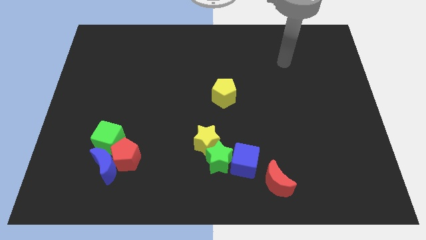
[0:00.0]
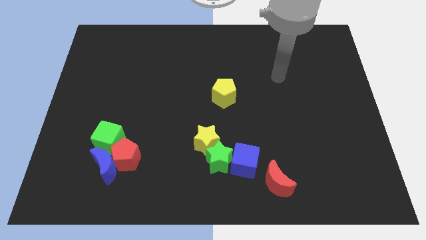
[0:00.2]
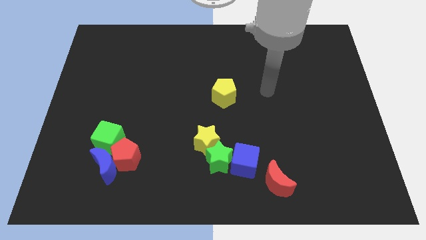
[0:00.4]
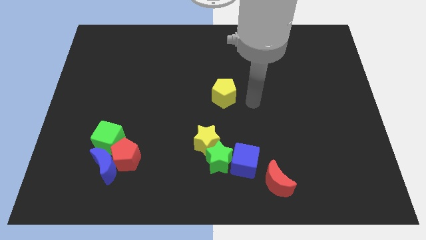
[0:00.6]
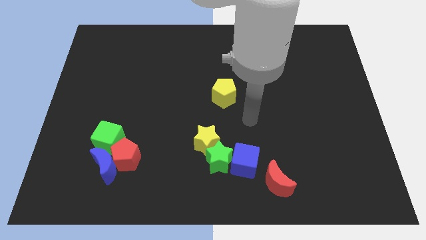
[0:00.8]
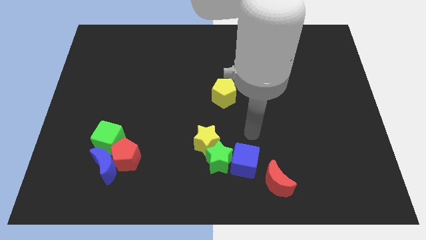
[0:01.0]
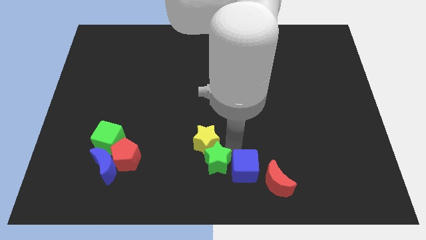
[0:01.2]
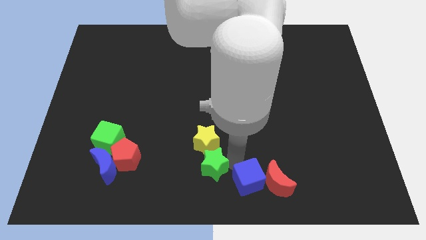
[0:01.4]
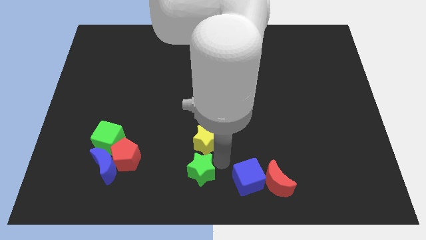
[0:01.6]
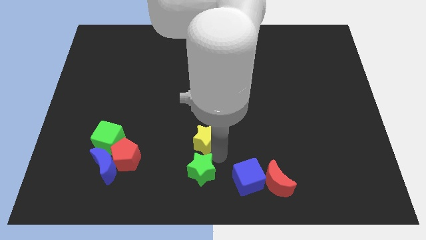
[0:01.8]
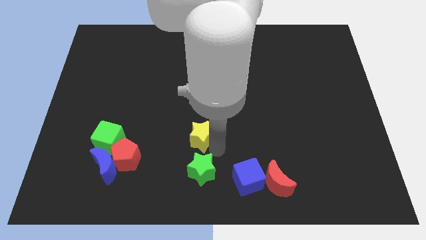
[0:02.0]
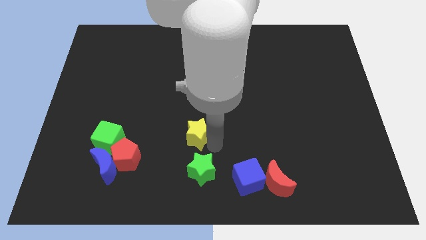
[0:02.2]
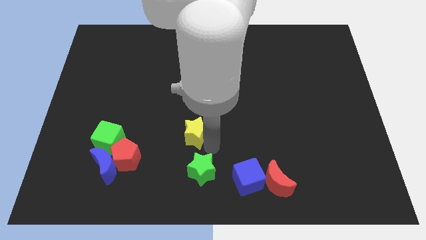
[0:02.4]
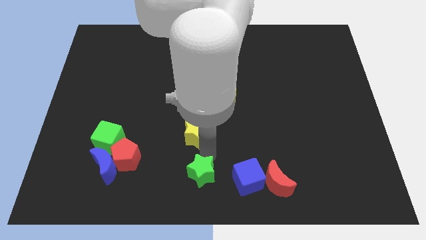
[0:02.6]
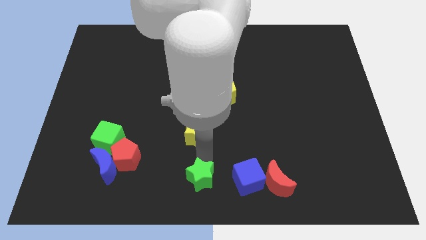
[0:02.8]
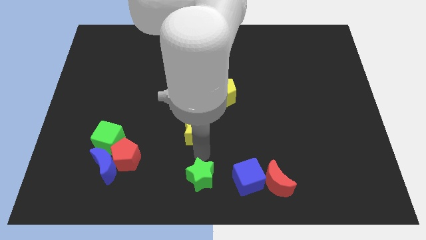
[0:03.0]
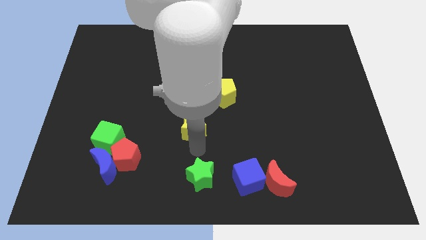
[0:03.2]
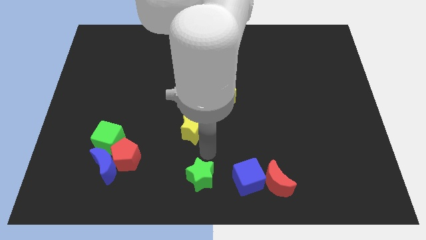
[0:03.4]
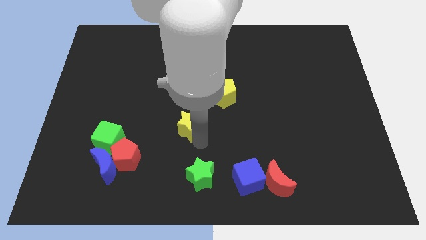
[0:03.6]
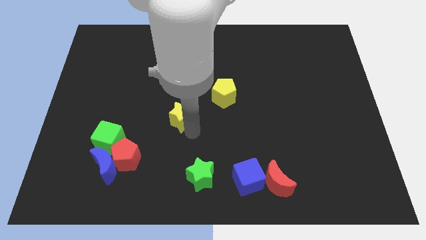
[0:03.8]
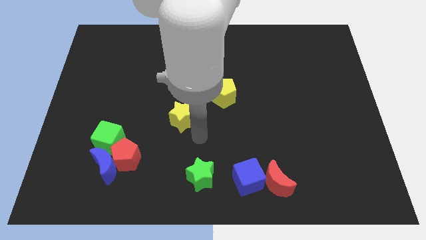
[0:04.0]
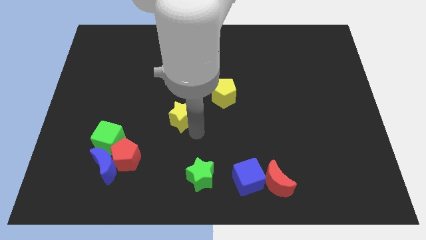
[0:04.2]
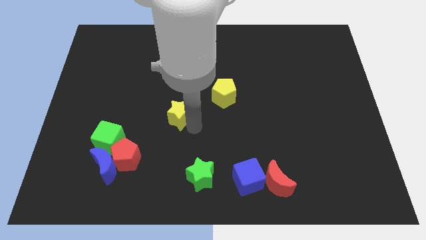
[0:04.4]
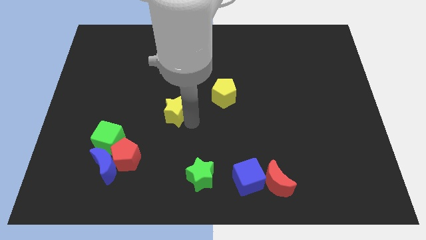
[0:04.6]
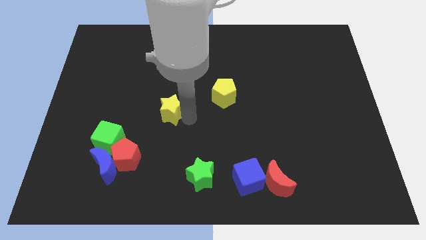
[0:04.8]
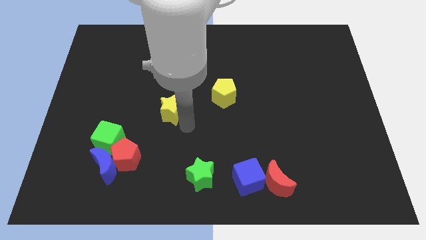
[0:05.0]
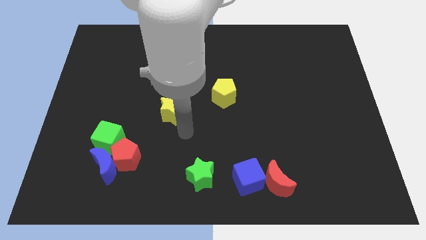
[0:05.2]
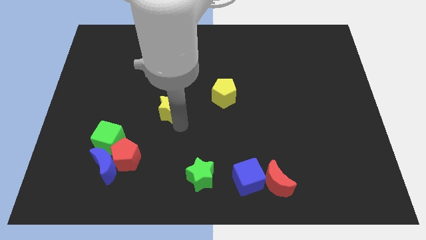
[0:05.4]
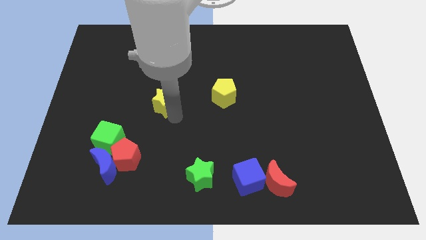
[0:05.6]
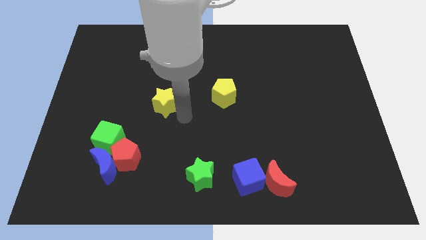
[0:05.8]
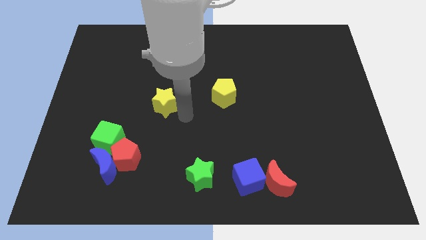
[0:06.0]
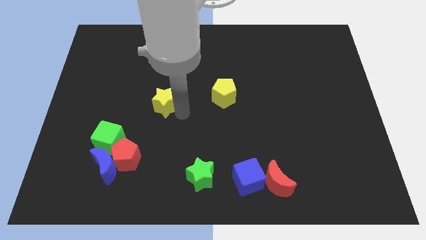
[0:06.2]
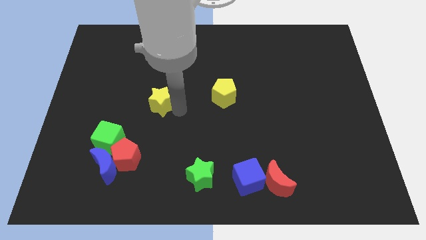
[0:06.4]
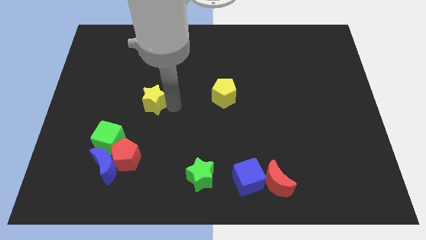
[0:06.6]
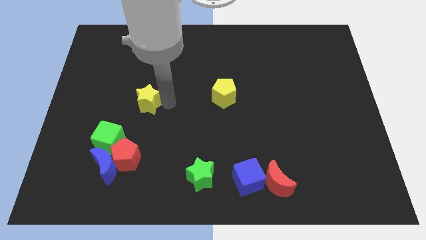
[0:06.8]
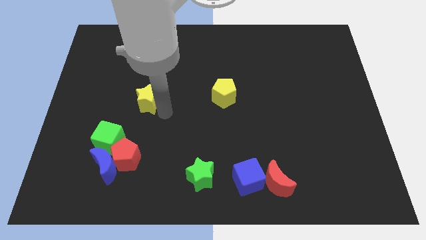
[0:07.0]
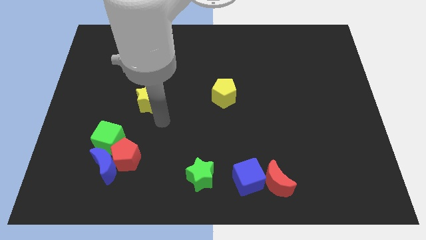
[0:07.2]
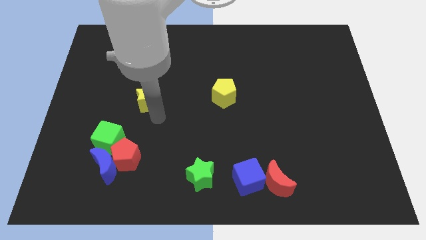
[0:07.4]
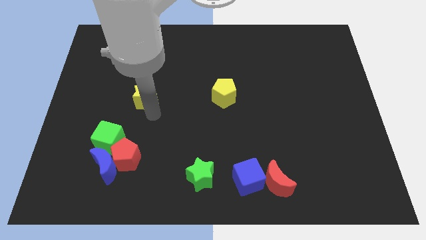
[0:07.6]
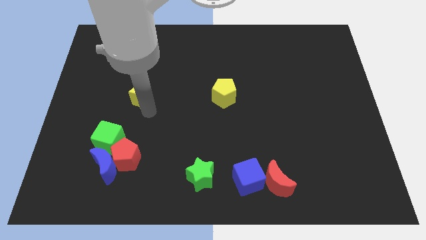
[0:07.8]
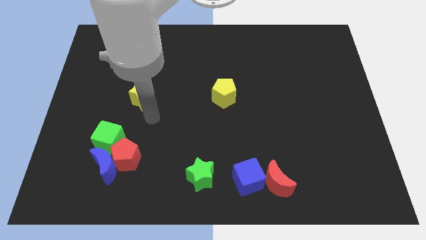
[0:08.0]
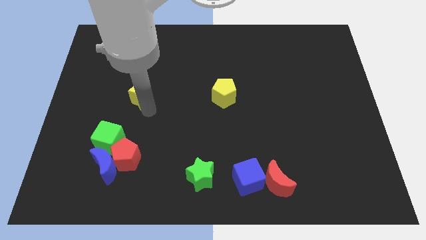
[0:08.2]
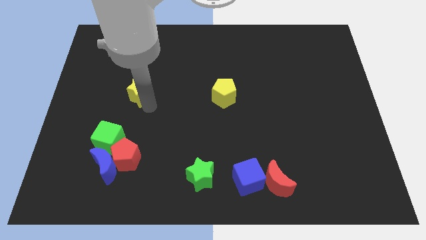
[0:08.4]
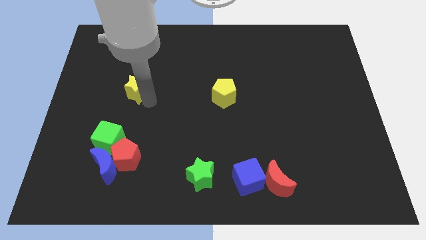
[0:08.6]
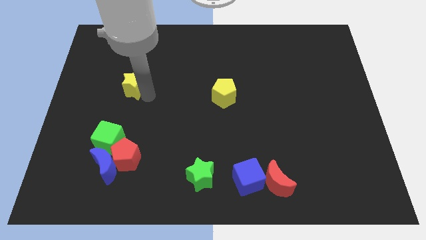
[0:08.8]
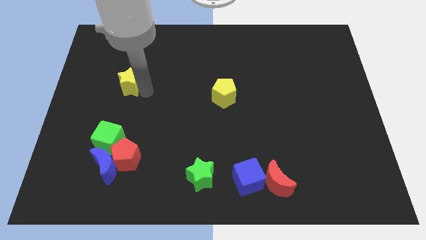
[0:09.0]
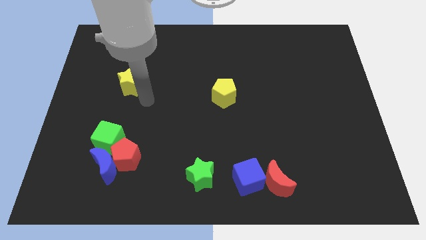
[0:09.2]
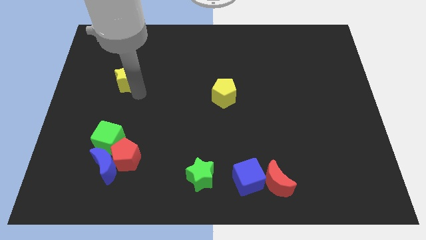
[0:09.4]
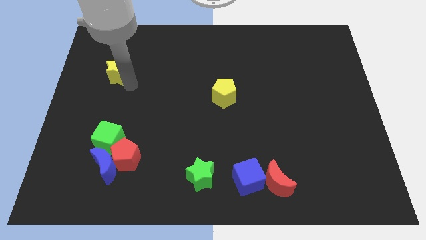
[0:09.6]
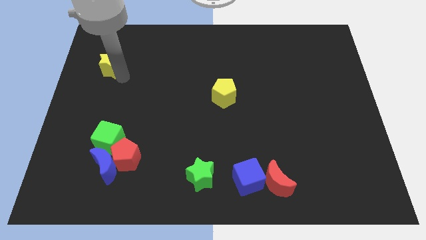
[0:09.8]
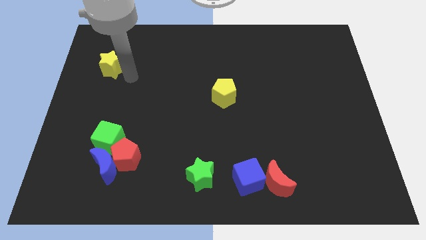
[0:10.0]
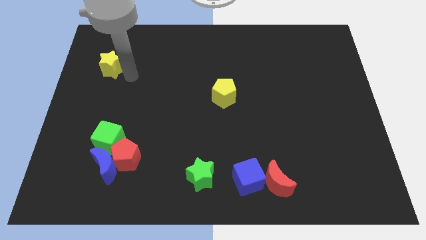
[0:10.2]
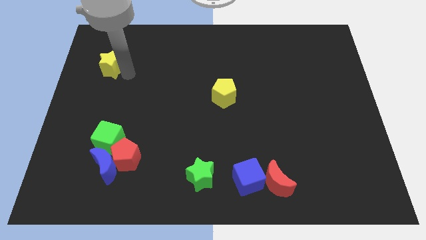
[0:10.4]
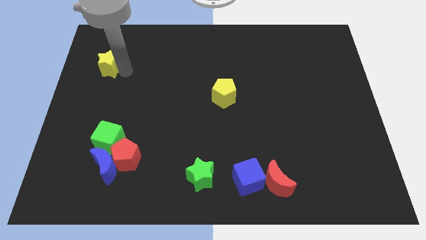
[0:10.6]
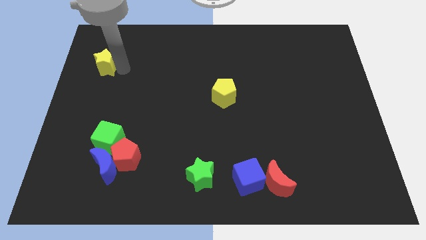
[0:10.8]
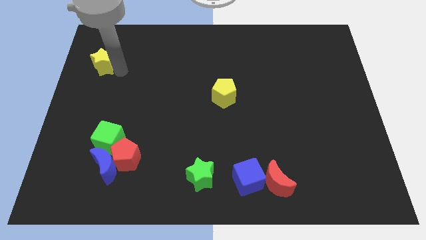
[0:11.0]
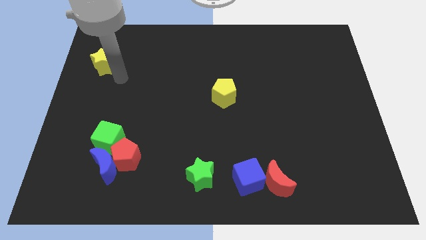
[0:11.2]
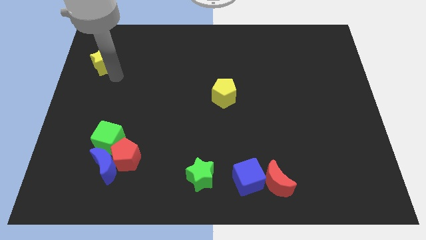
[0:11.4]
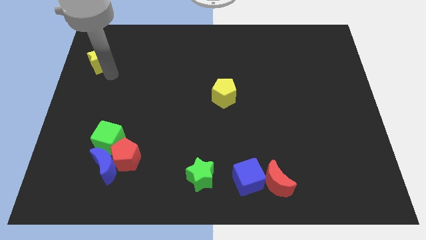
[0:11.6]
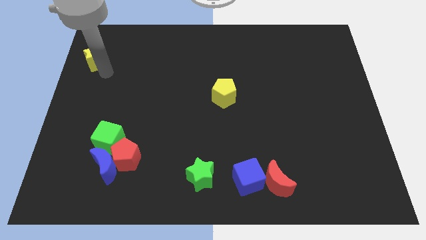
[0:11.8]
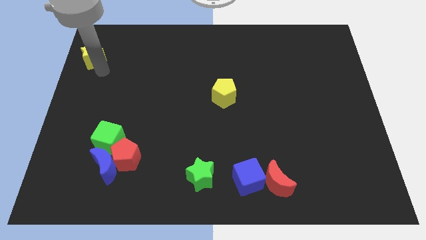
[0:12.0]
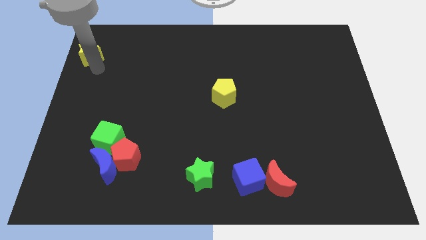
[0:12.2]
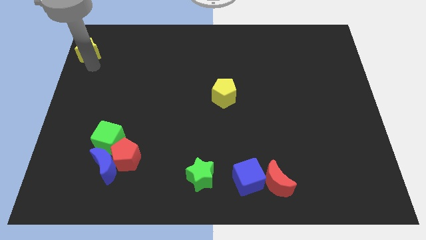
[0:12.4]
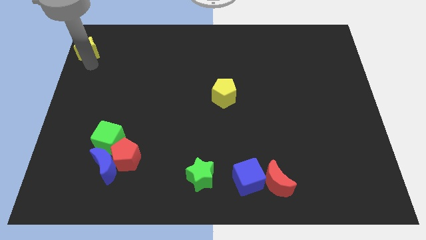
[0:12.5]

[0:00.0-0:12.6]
move the yellow star to the top left corner

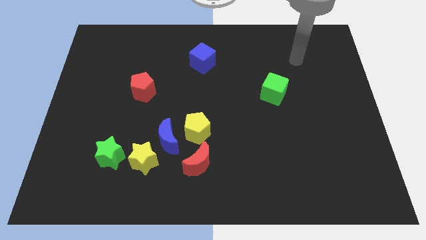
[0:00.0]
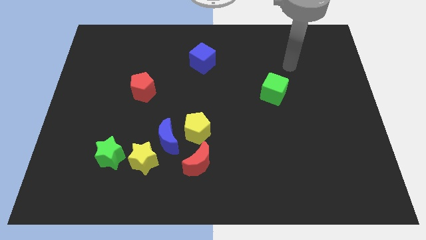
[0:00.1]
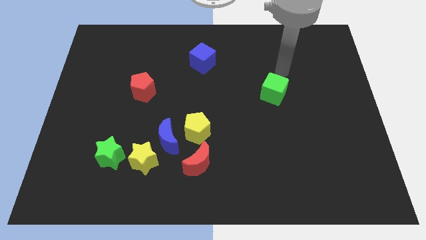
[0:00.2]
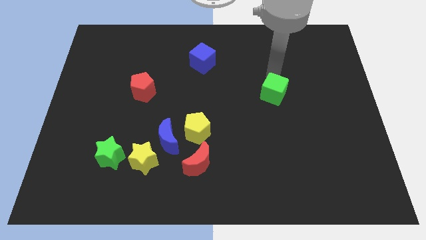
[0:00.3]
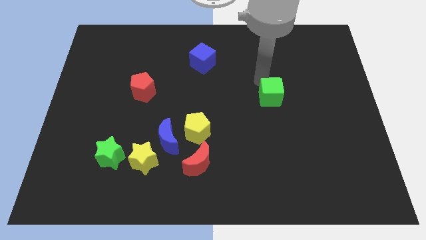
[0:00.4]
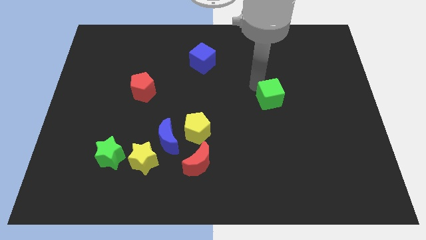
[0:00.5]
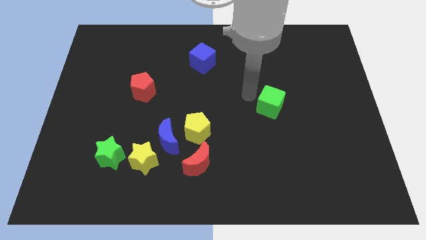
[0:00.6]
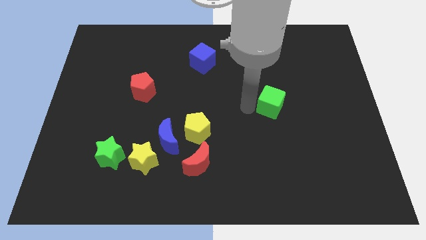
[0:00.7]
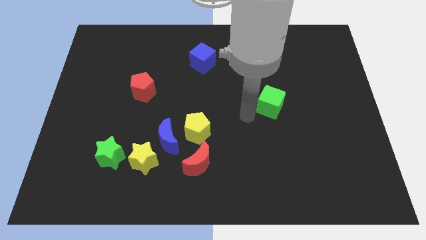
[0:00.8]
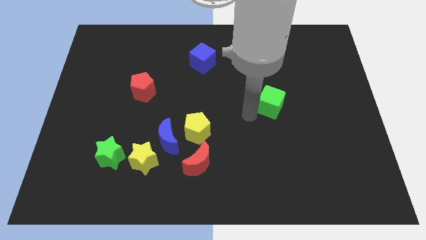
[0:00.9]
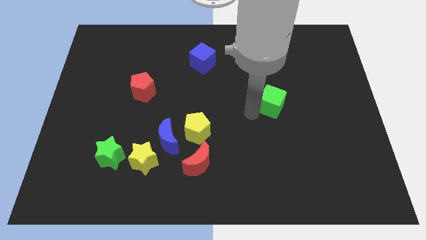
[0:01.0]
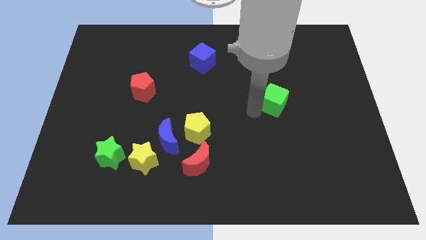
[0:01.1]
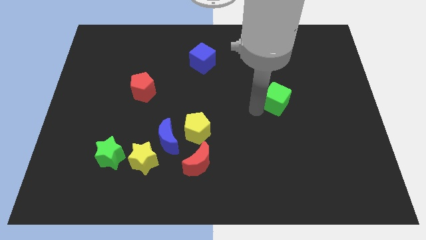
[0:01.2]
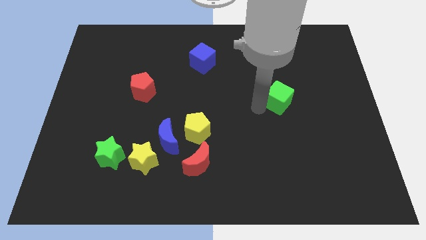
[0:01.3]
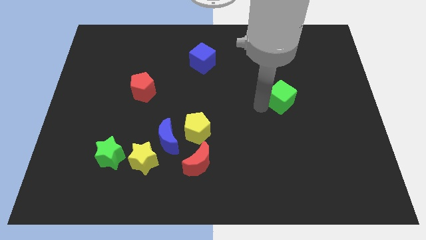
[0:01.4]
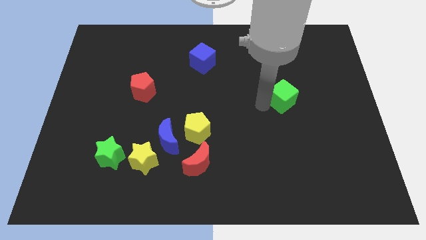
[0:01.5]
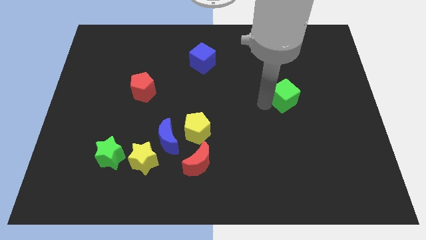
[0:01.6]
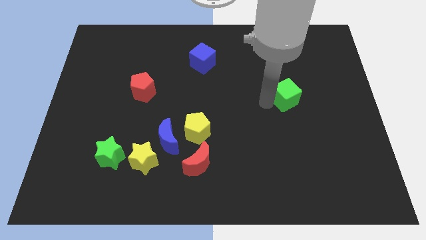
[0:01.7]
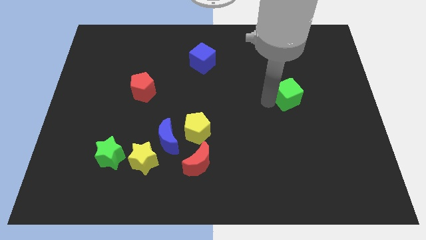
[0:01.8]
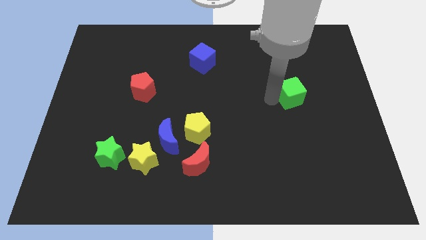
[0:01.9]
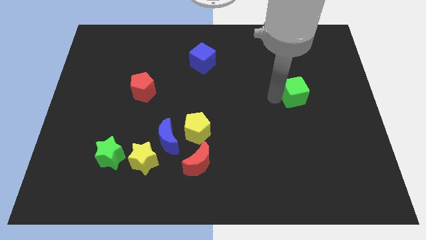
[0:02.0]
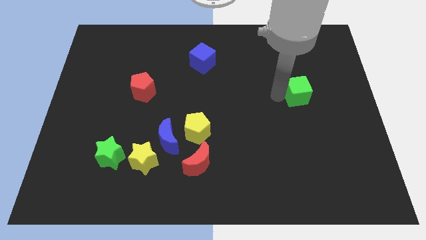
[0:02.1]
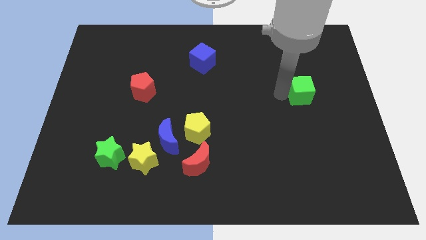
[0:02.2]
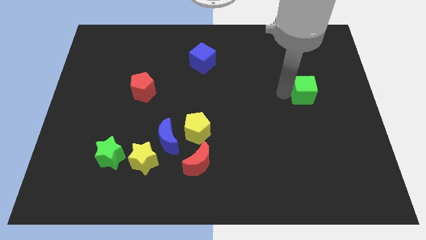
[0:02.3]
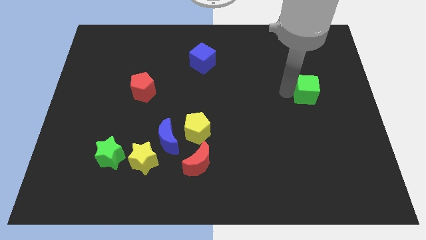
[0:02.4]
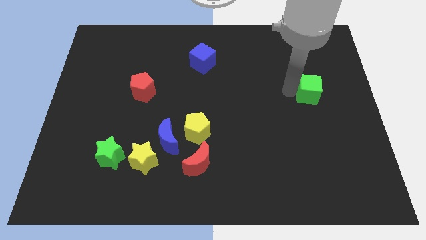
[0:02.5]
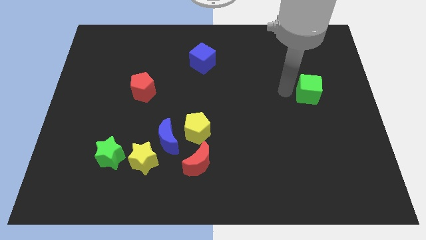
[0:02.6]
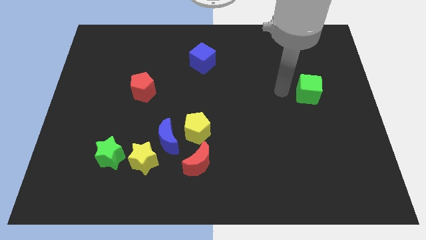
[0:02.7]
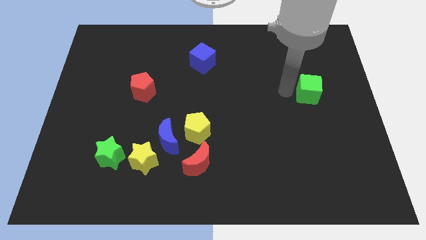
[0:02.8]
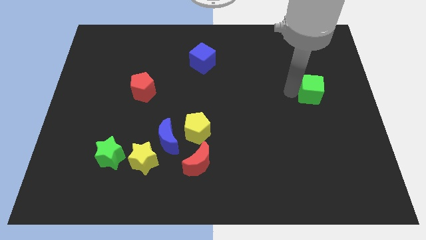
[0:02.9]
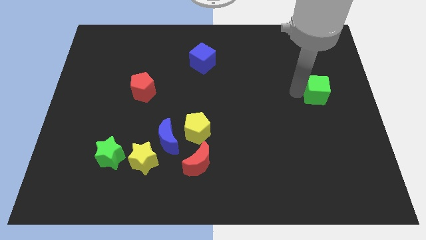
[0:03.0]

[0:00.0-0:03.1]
slide the green cube to the right side of the board
